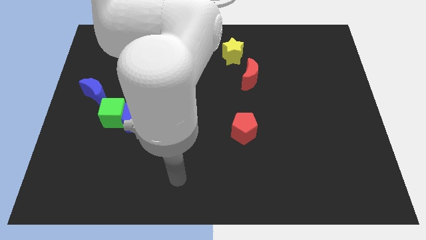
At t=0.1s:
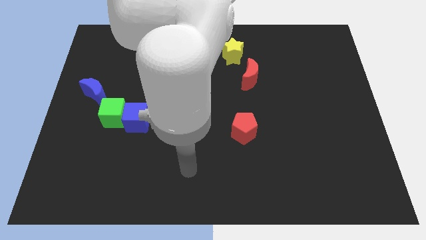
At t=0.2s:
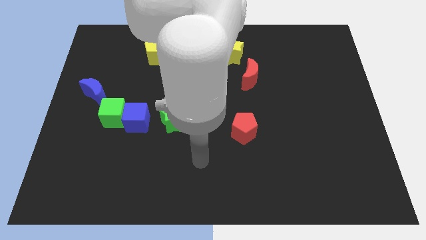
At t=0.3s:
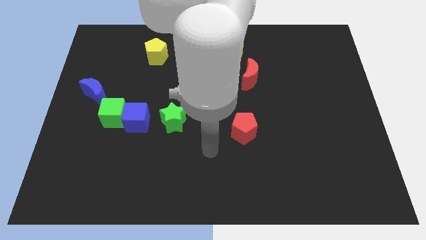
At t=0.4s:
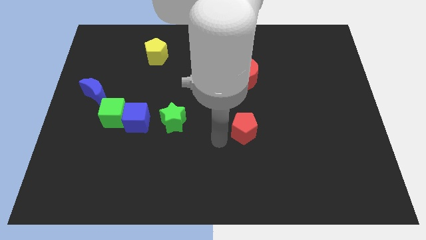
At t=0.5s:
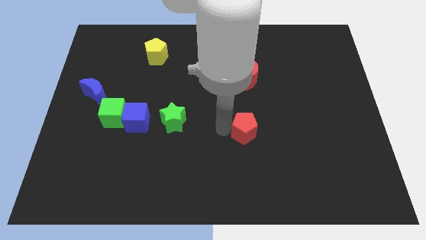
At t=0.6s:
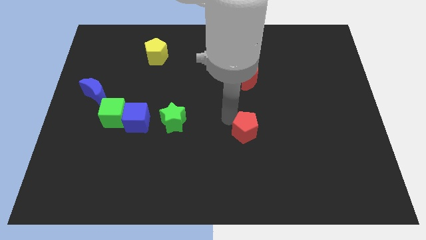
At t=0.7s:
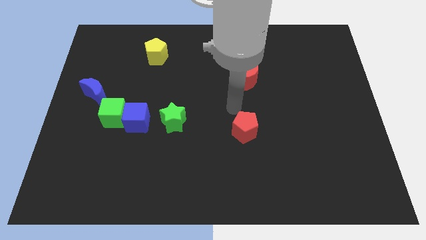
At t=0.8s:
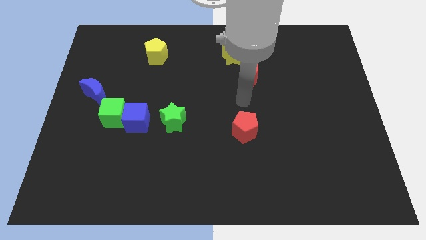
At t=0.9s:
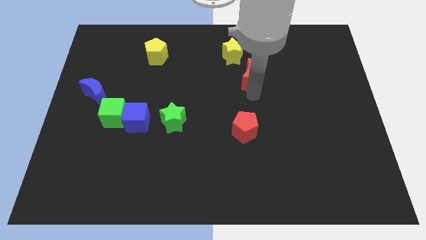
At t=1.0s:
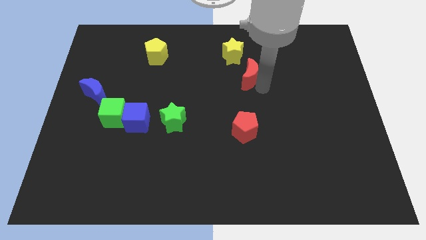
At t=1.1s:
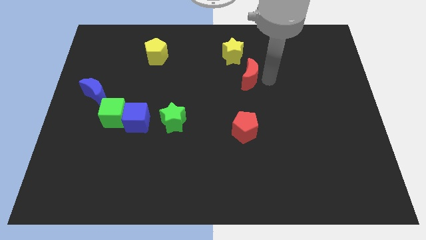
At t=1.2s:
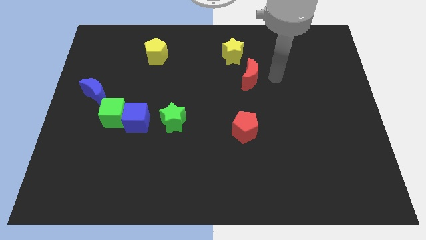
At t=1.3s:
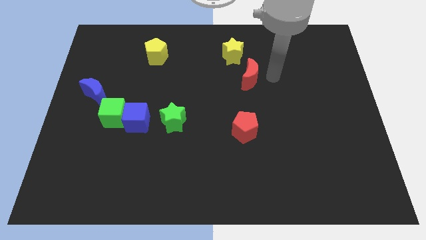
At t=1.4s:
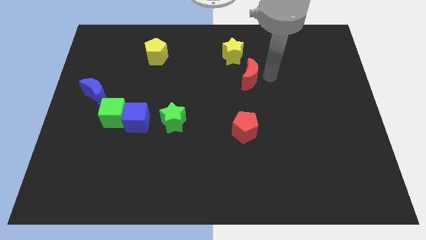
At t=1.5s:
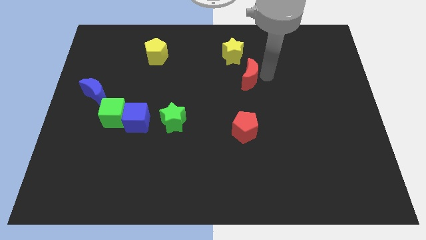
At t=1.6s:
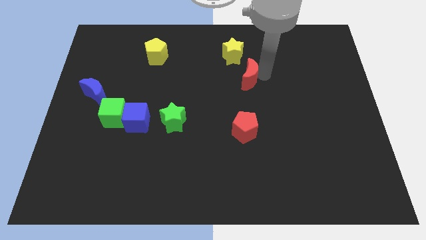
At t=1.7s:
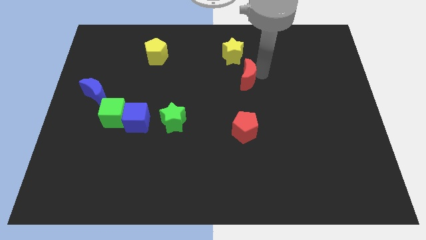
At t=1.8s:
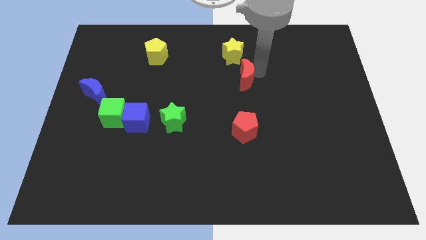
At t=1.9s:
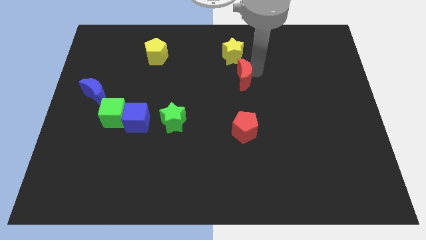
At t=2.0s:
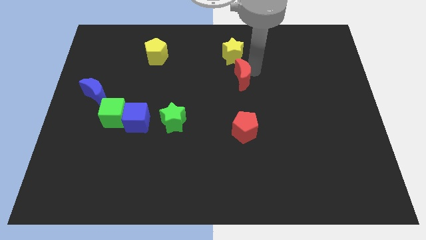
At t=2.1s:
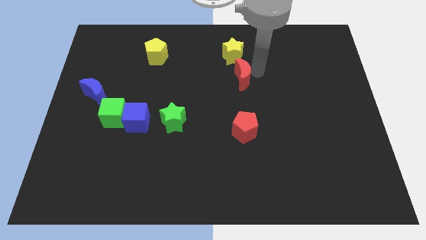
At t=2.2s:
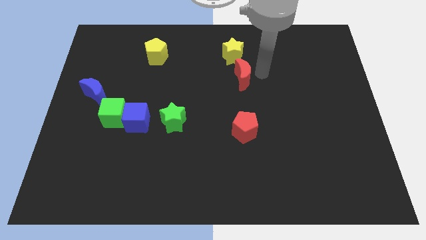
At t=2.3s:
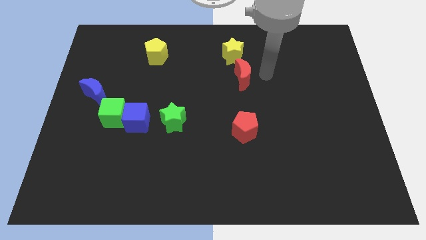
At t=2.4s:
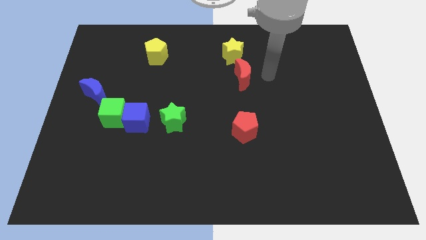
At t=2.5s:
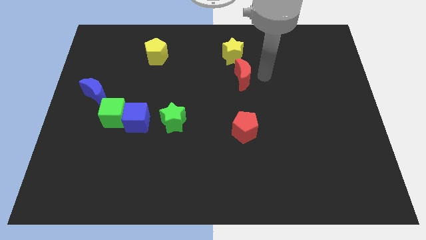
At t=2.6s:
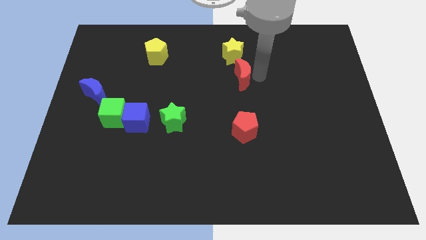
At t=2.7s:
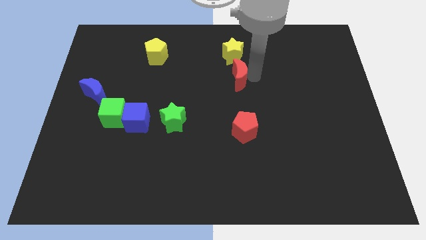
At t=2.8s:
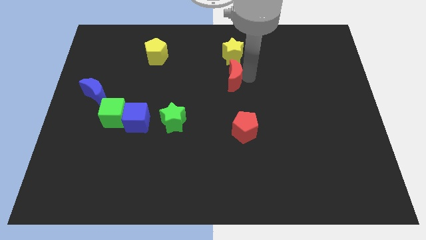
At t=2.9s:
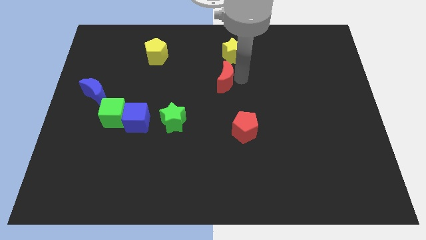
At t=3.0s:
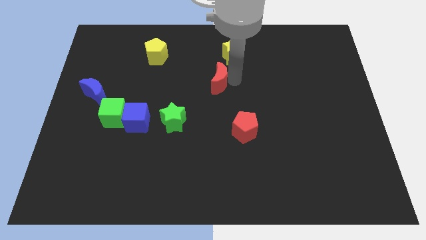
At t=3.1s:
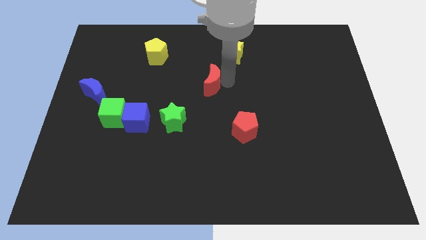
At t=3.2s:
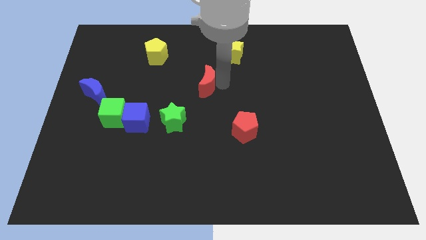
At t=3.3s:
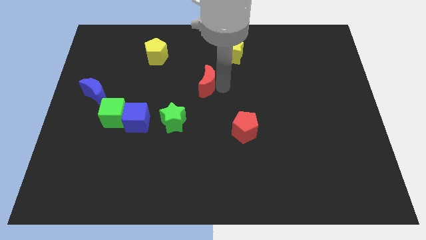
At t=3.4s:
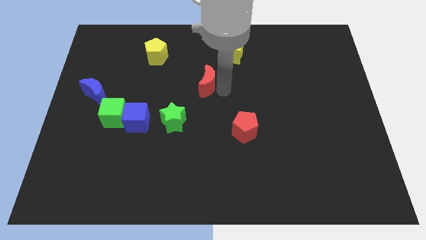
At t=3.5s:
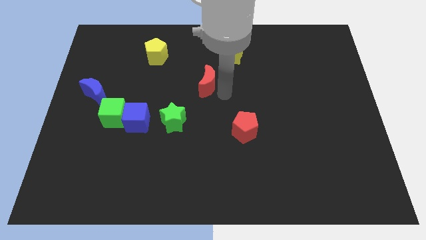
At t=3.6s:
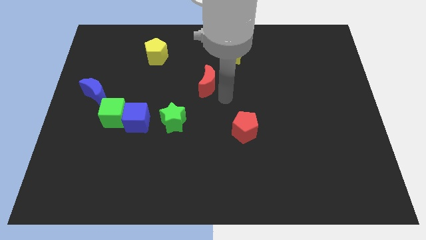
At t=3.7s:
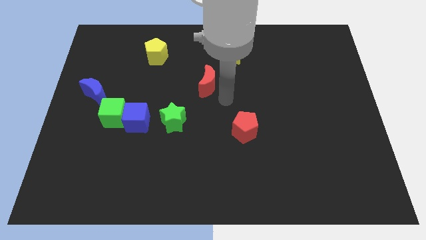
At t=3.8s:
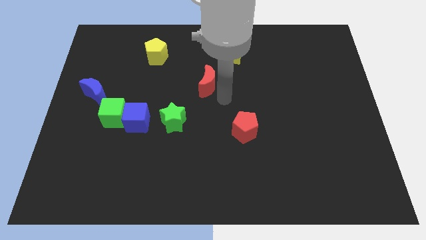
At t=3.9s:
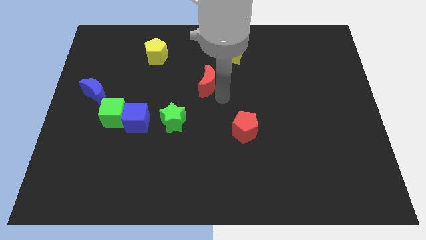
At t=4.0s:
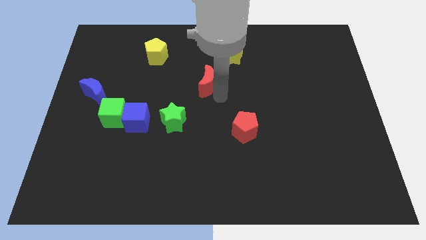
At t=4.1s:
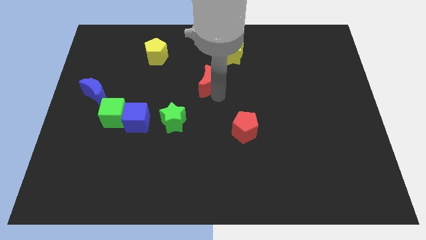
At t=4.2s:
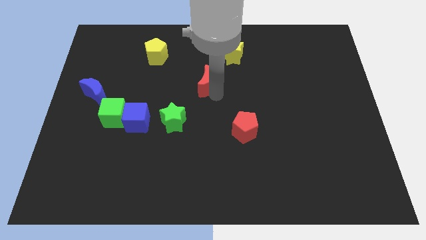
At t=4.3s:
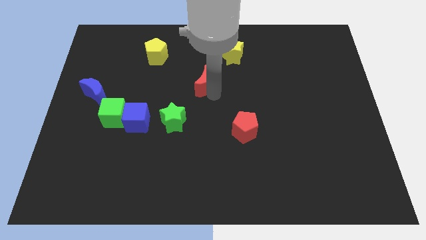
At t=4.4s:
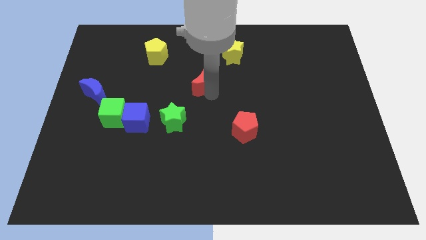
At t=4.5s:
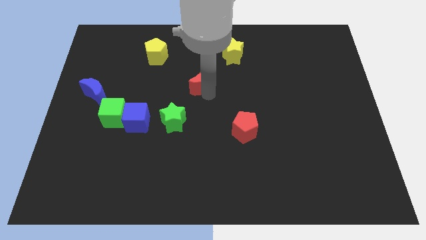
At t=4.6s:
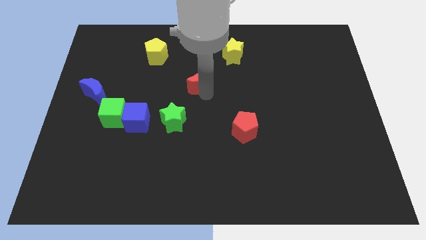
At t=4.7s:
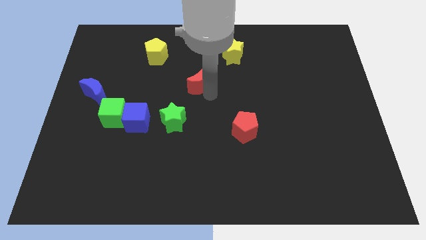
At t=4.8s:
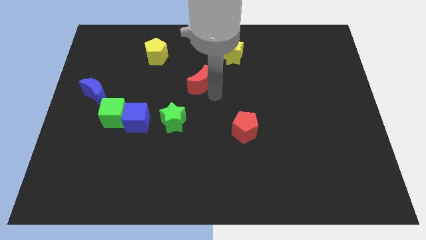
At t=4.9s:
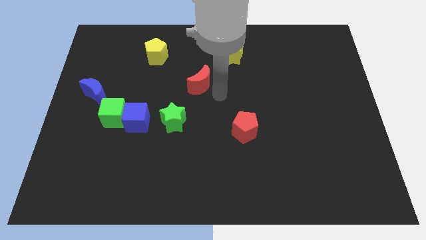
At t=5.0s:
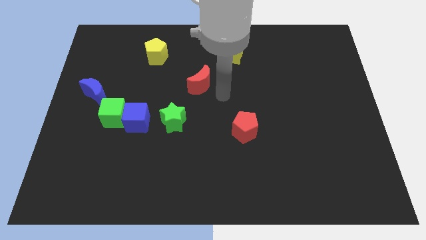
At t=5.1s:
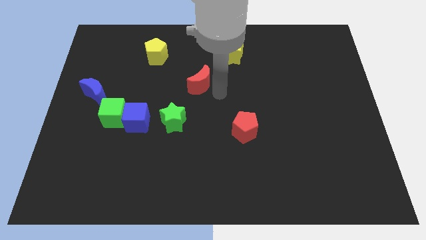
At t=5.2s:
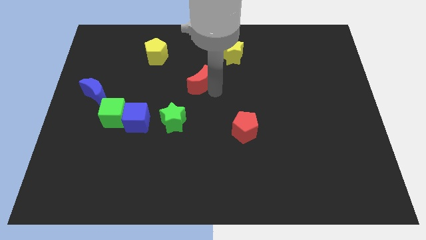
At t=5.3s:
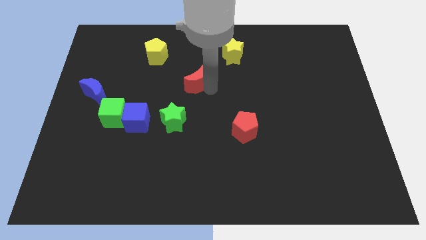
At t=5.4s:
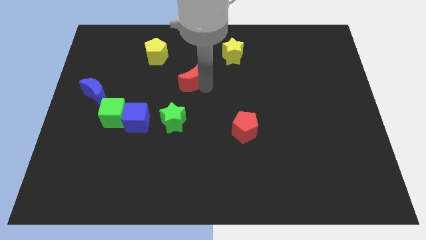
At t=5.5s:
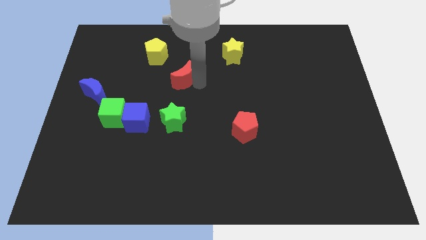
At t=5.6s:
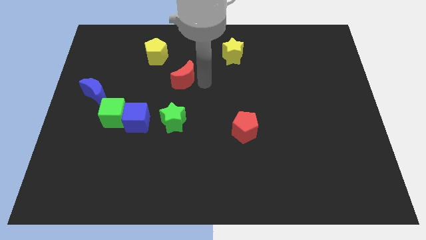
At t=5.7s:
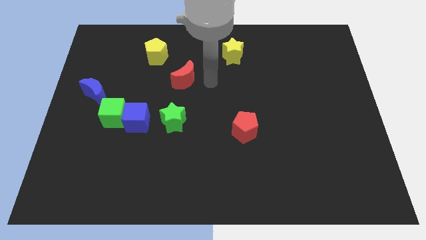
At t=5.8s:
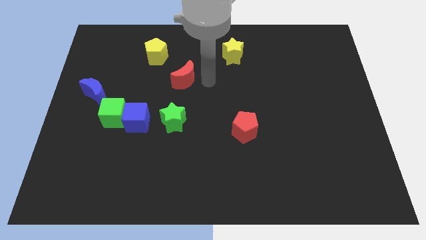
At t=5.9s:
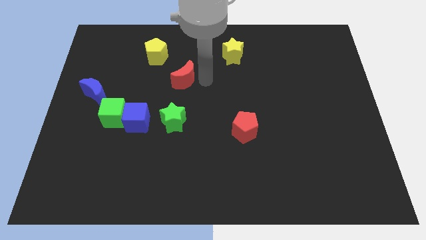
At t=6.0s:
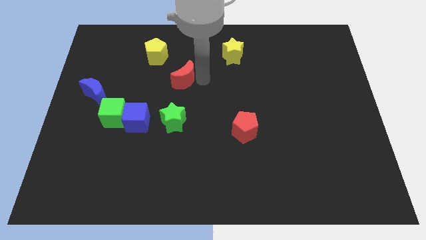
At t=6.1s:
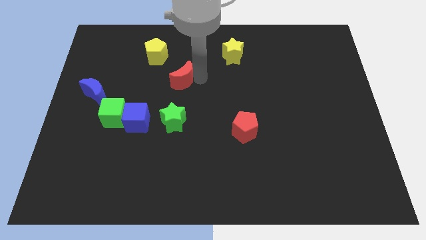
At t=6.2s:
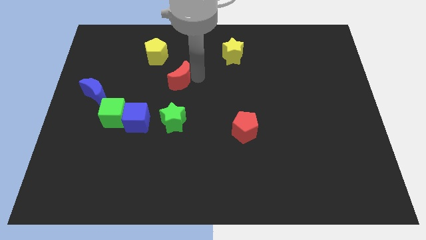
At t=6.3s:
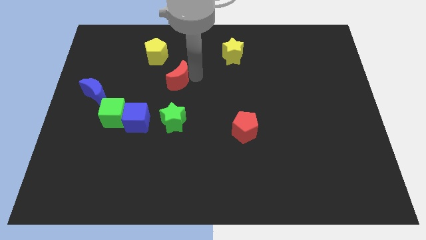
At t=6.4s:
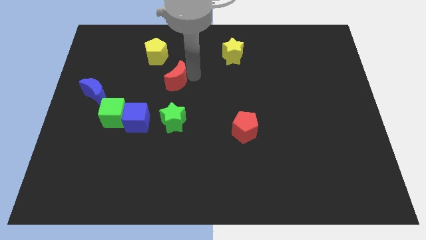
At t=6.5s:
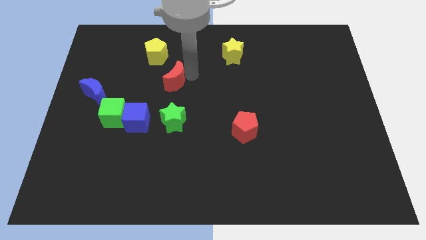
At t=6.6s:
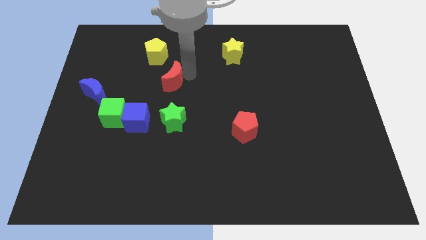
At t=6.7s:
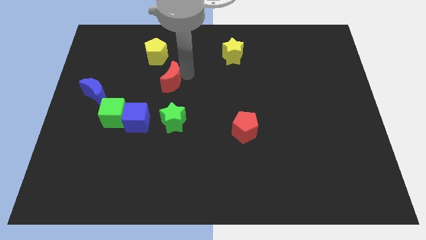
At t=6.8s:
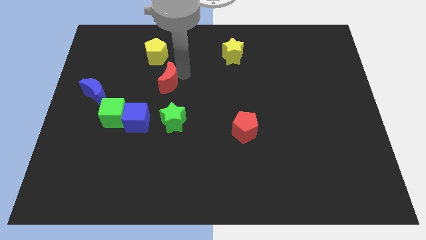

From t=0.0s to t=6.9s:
push the red moon left

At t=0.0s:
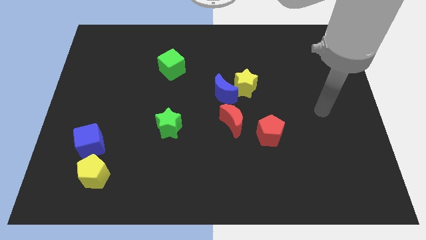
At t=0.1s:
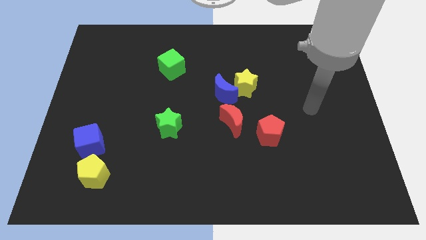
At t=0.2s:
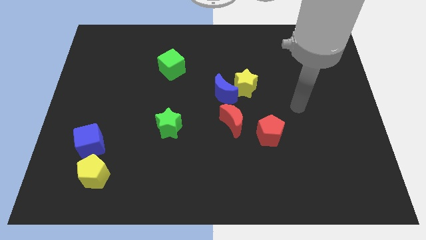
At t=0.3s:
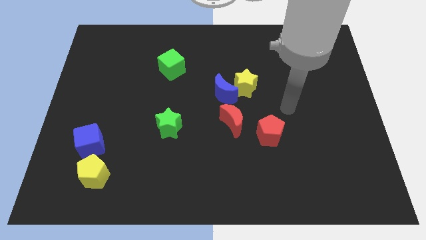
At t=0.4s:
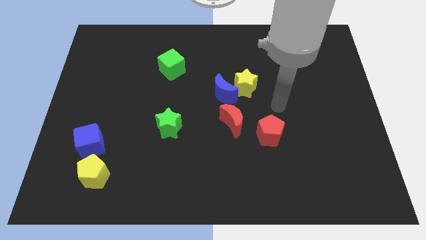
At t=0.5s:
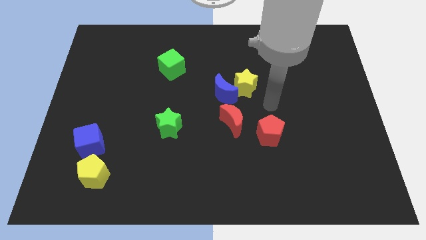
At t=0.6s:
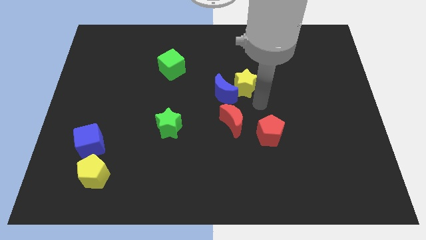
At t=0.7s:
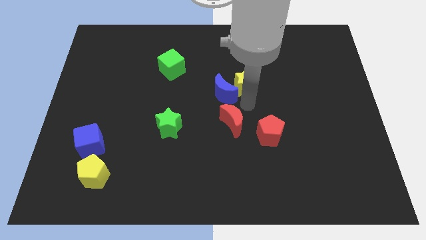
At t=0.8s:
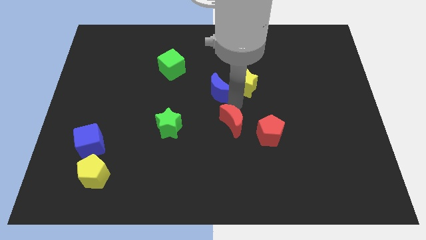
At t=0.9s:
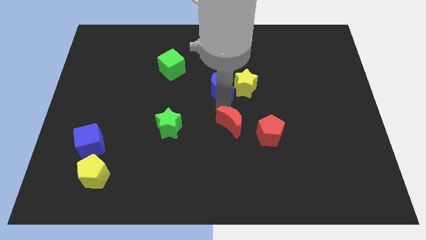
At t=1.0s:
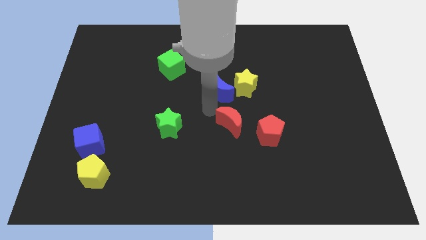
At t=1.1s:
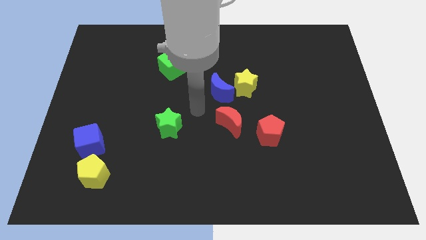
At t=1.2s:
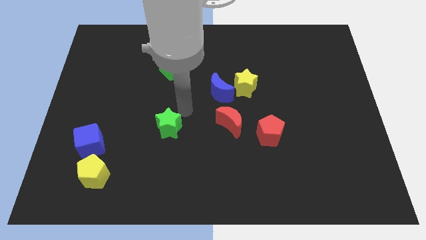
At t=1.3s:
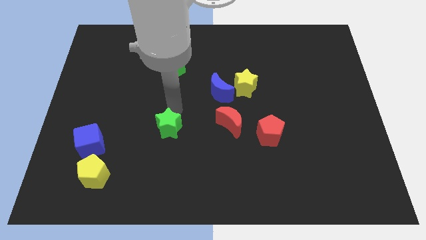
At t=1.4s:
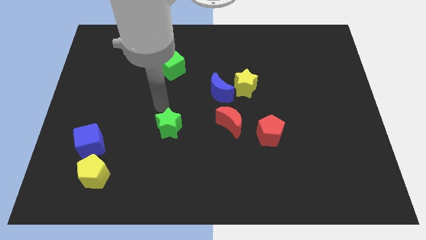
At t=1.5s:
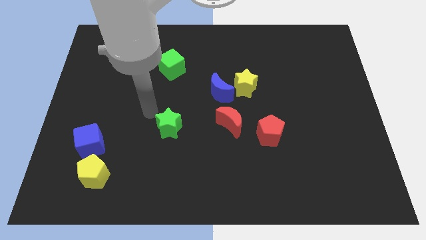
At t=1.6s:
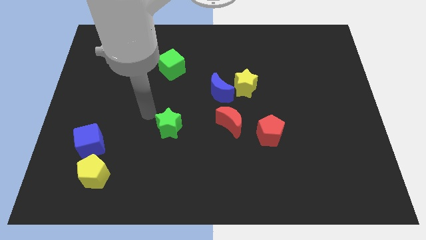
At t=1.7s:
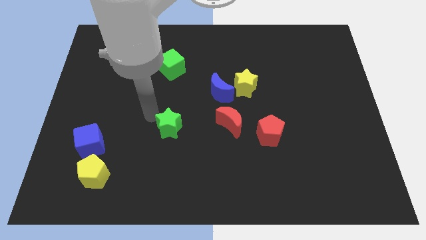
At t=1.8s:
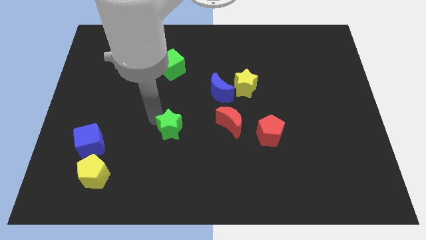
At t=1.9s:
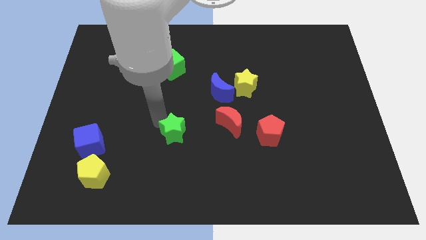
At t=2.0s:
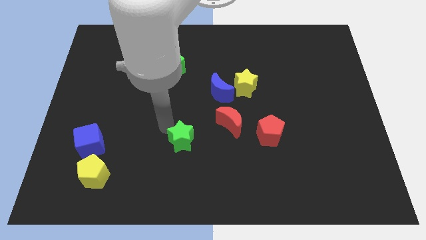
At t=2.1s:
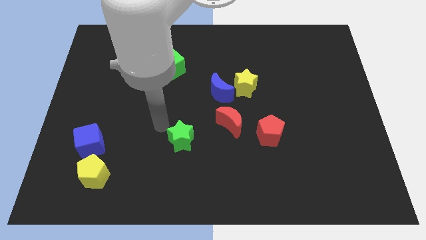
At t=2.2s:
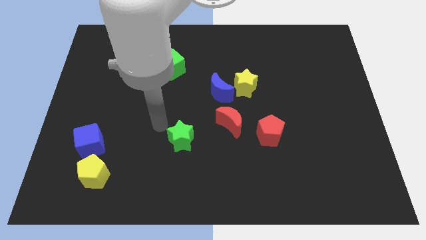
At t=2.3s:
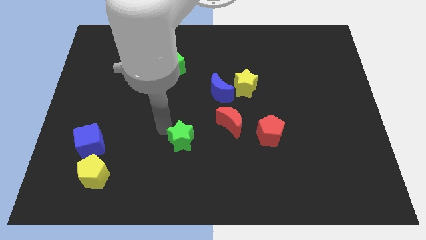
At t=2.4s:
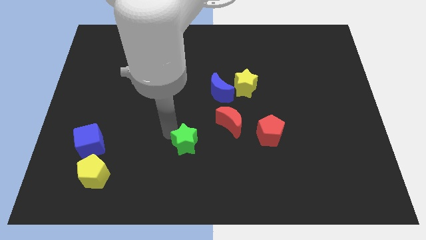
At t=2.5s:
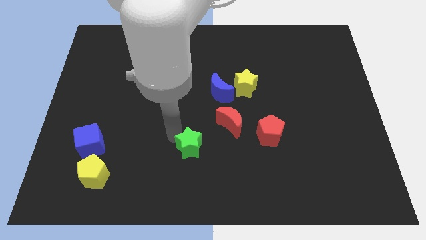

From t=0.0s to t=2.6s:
push the green star downwards and then right a little
